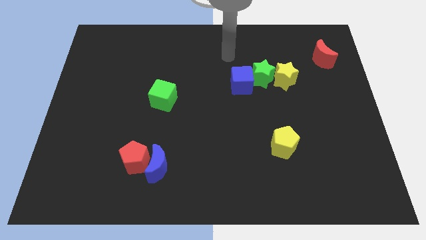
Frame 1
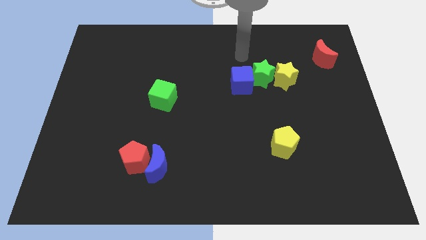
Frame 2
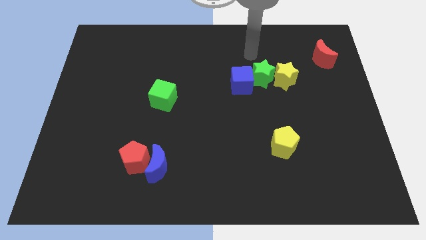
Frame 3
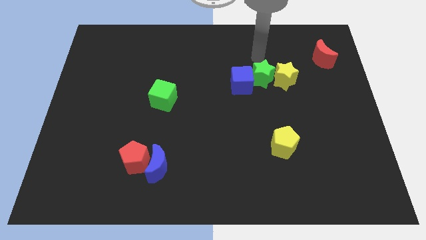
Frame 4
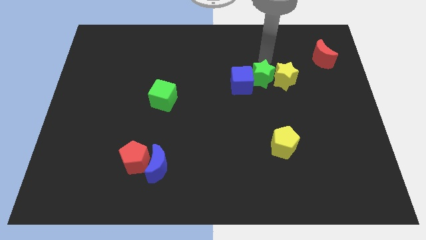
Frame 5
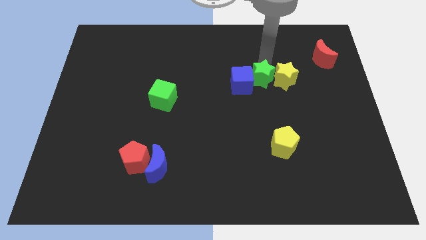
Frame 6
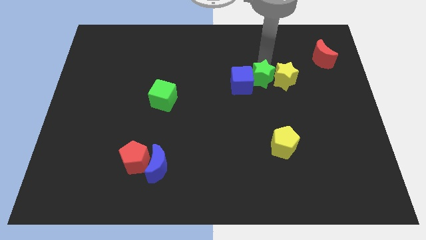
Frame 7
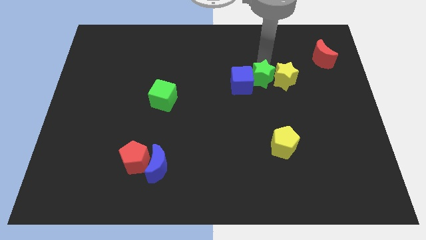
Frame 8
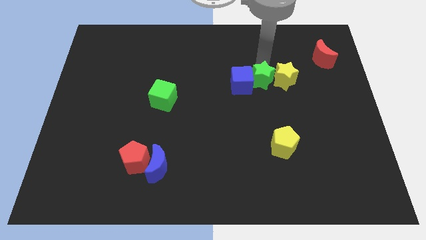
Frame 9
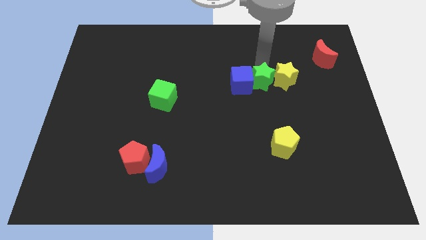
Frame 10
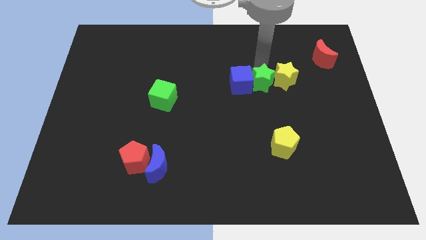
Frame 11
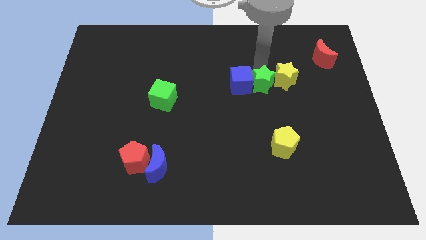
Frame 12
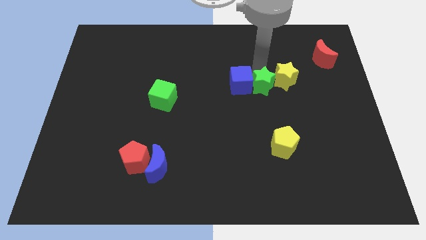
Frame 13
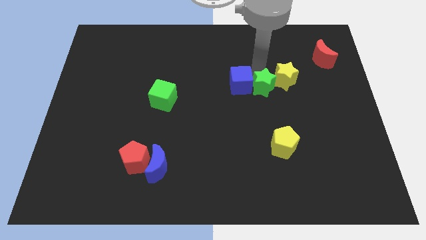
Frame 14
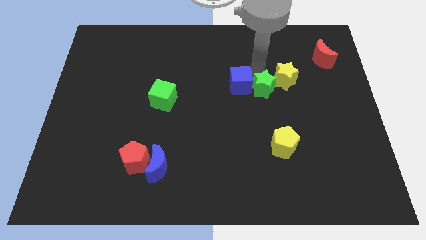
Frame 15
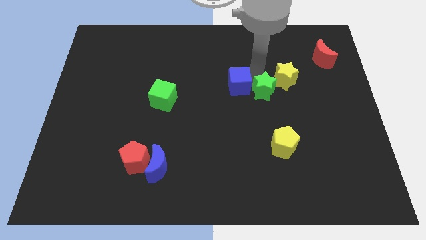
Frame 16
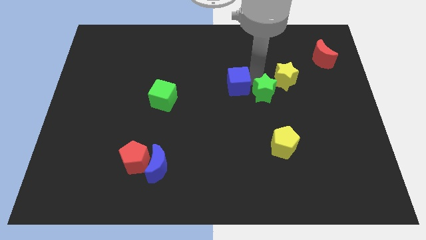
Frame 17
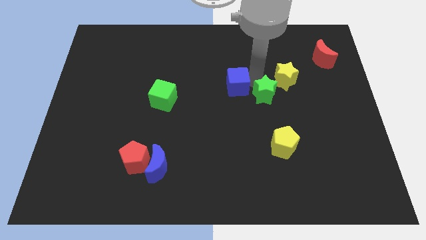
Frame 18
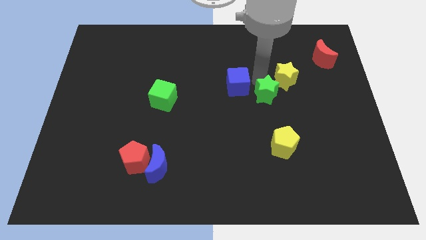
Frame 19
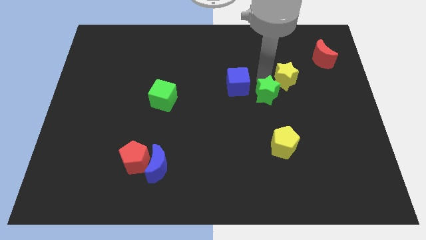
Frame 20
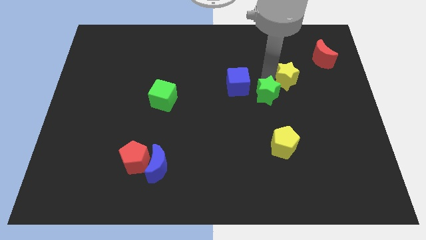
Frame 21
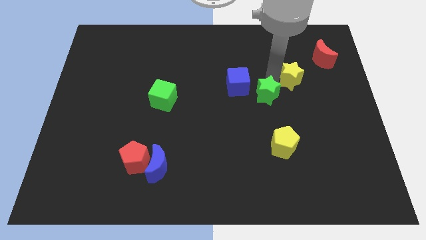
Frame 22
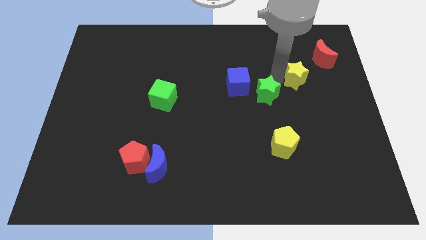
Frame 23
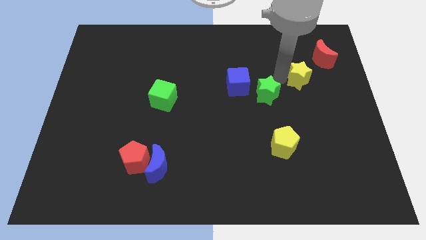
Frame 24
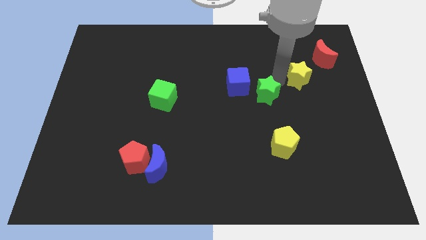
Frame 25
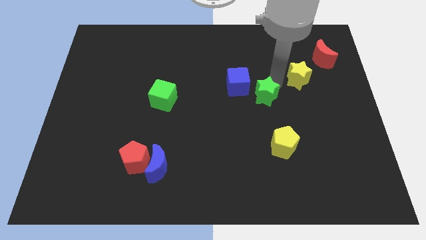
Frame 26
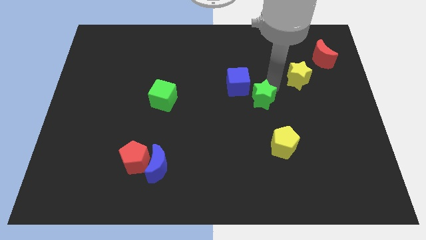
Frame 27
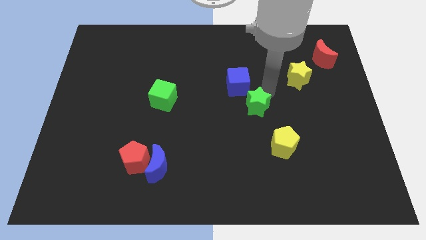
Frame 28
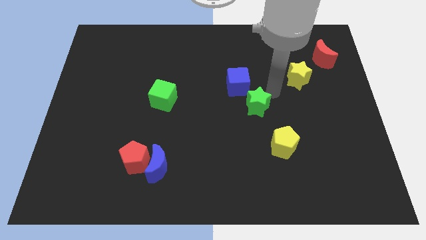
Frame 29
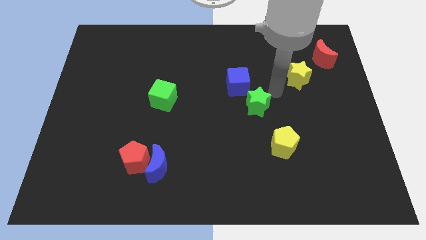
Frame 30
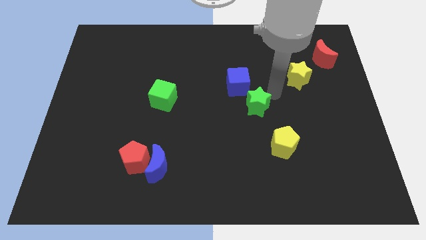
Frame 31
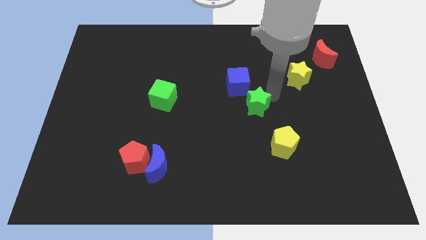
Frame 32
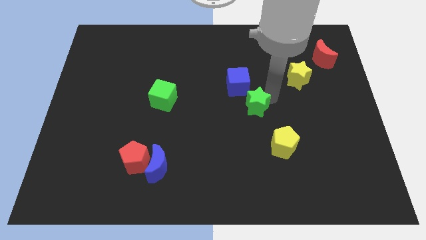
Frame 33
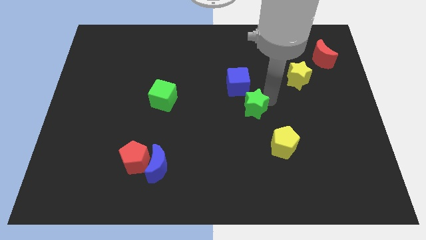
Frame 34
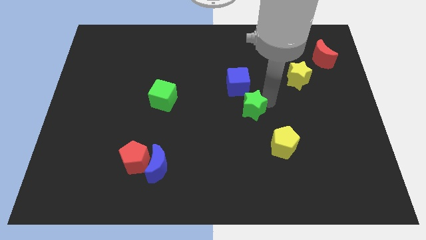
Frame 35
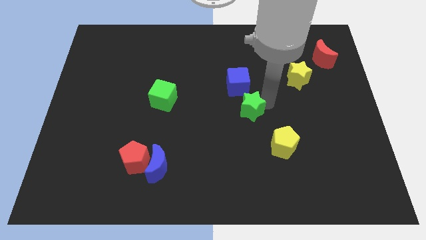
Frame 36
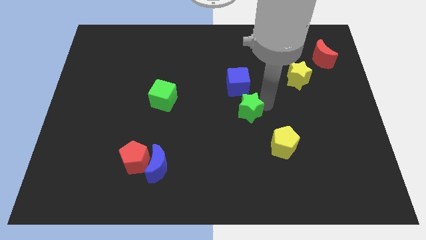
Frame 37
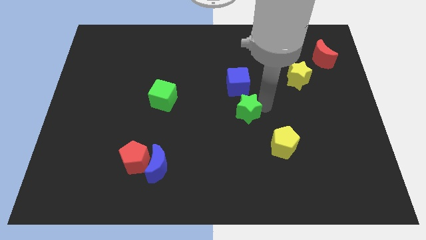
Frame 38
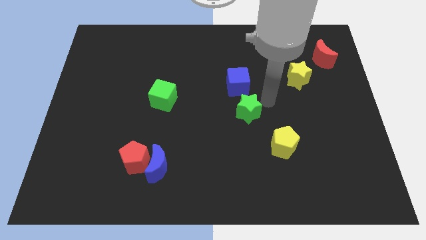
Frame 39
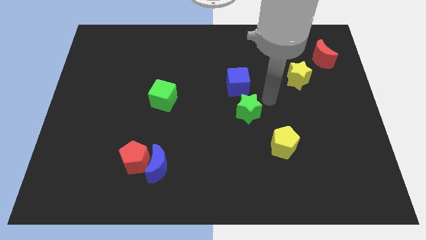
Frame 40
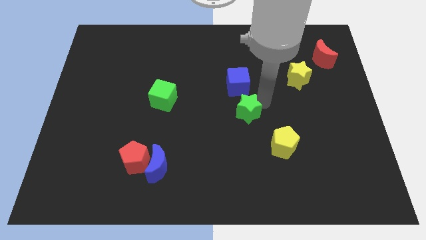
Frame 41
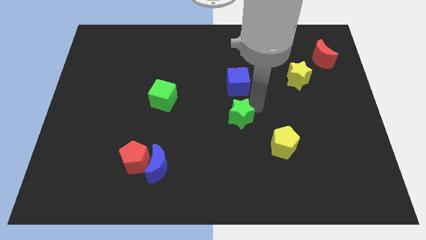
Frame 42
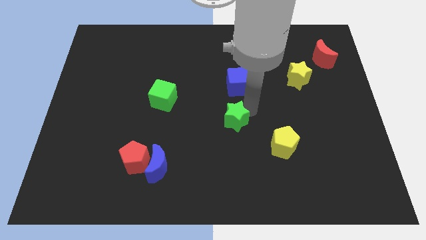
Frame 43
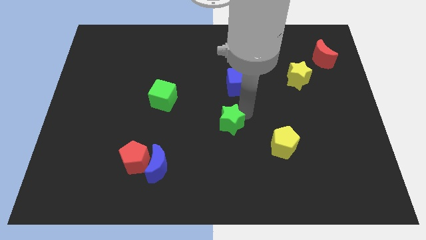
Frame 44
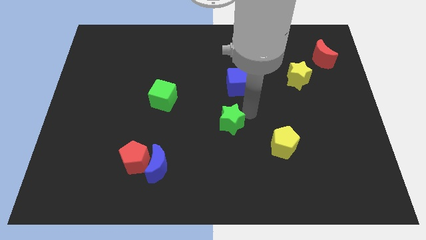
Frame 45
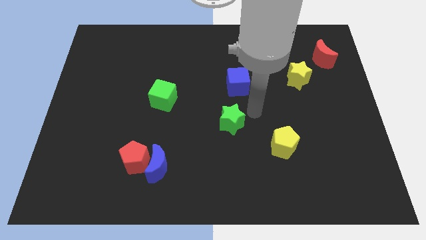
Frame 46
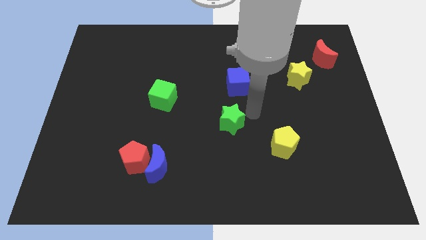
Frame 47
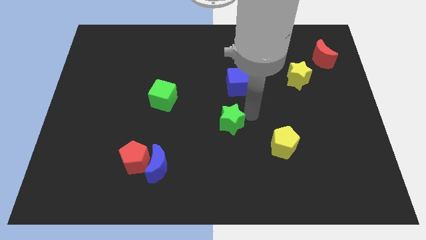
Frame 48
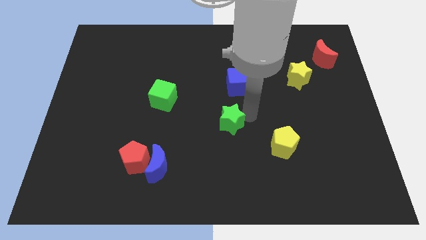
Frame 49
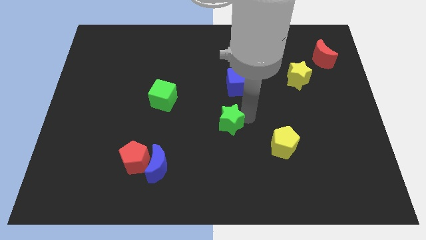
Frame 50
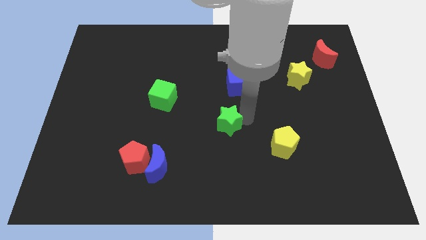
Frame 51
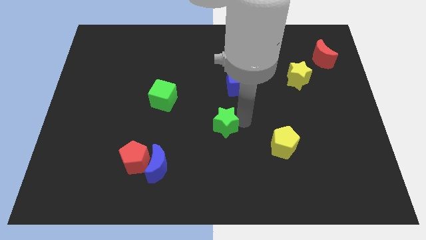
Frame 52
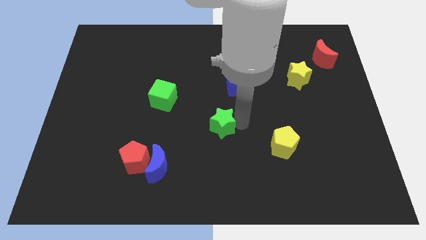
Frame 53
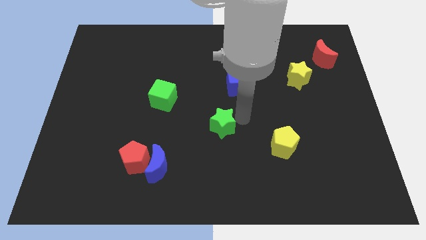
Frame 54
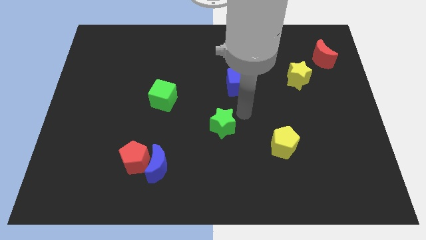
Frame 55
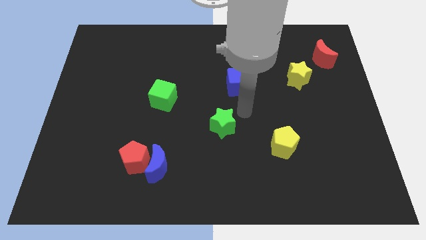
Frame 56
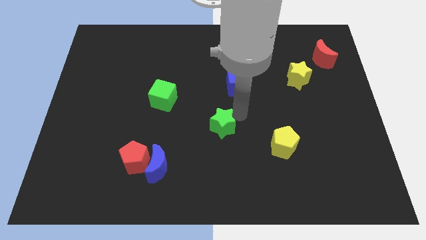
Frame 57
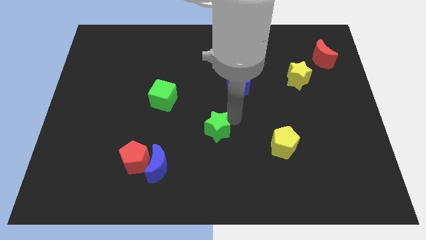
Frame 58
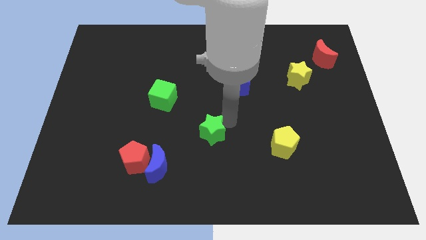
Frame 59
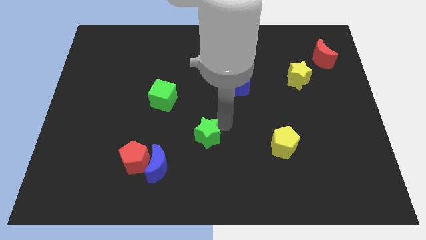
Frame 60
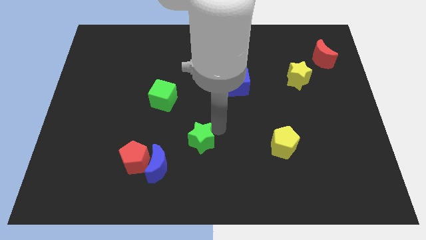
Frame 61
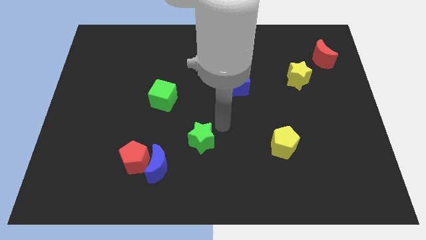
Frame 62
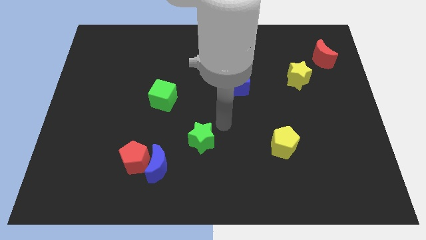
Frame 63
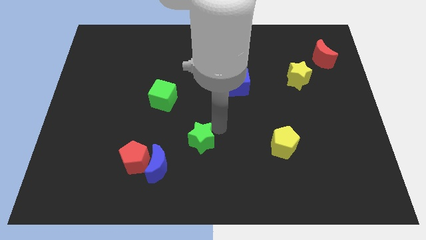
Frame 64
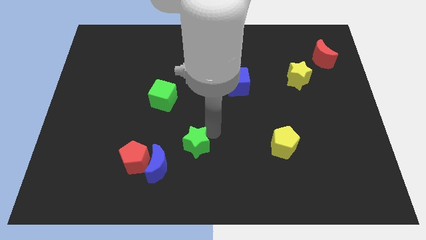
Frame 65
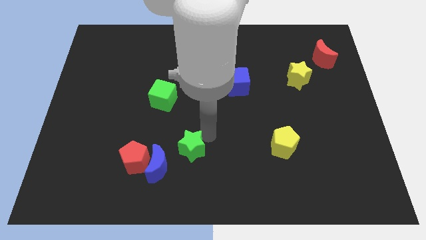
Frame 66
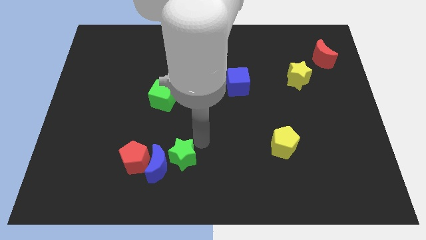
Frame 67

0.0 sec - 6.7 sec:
put the green star to the blue moon
